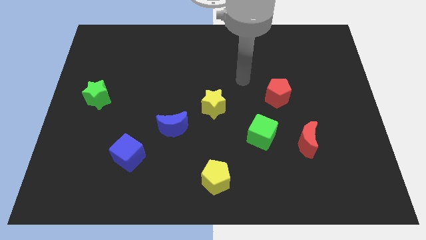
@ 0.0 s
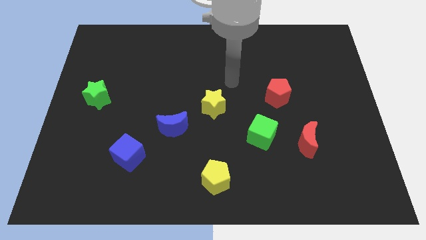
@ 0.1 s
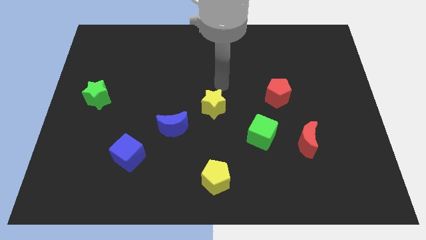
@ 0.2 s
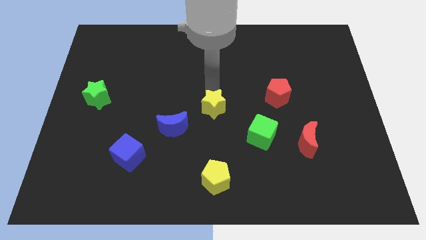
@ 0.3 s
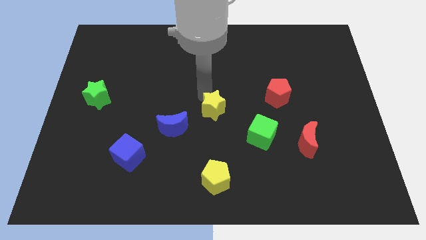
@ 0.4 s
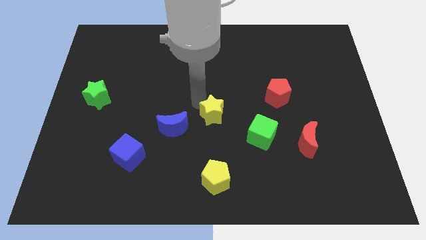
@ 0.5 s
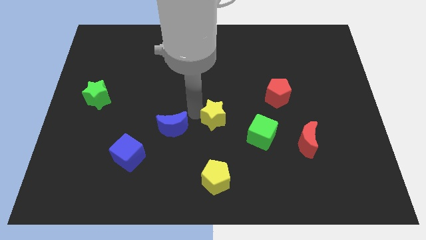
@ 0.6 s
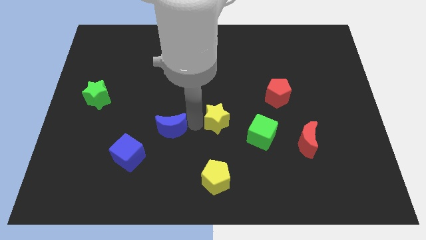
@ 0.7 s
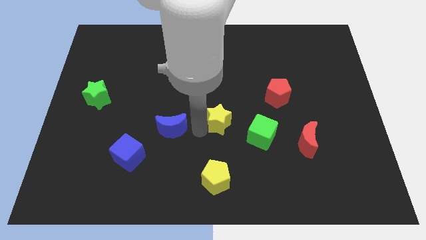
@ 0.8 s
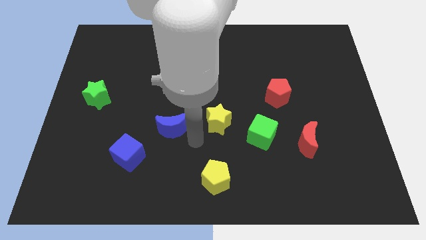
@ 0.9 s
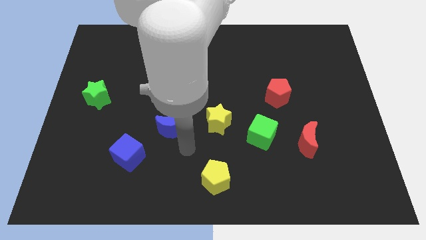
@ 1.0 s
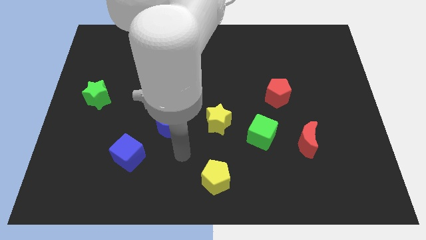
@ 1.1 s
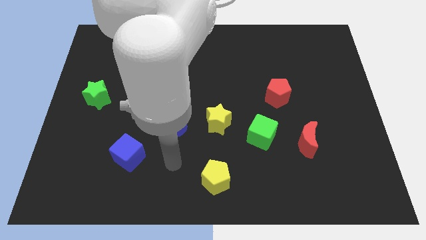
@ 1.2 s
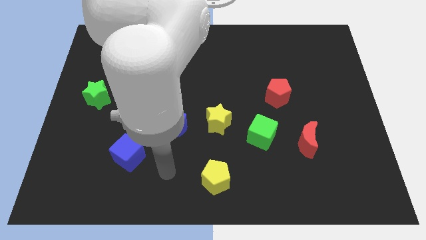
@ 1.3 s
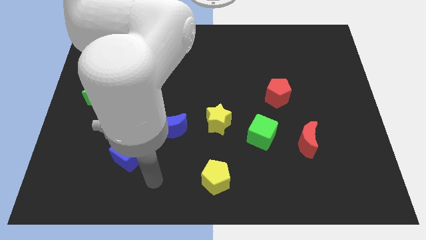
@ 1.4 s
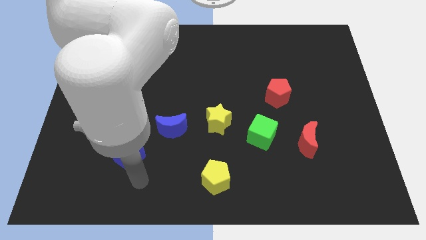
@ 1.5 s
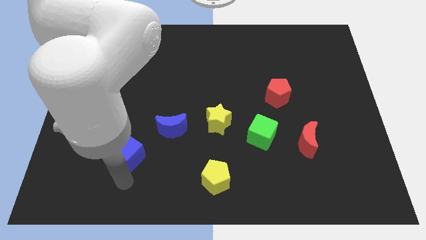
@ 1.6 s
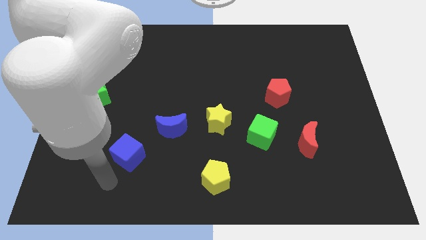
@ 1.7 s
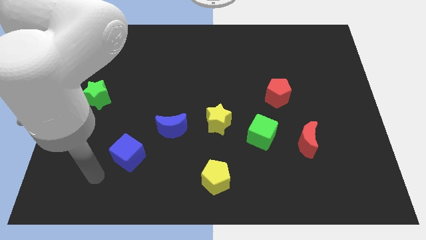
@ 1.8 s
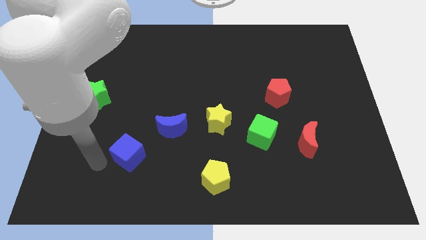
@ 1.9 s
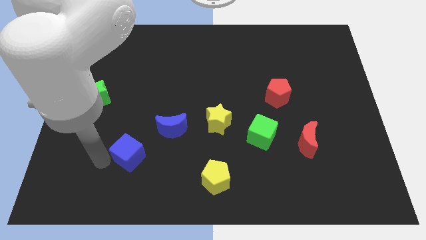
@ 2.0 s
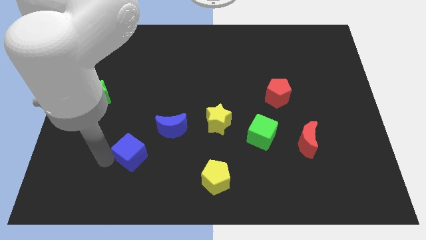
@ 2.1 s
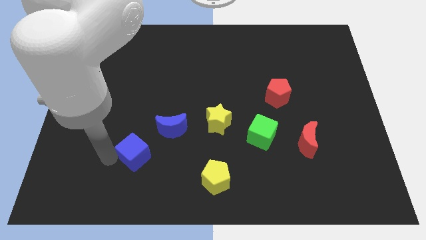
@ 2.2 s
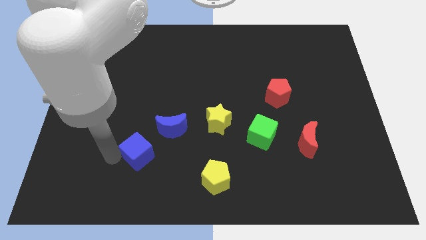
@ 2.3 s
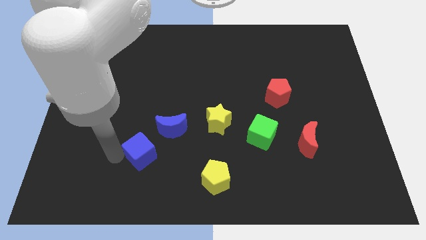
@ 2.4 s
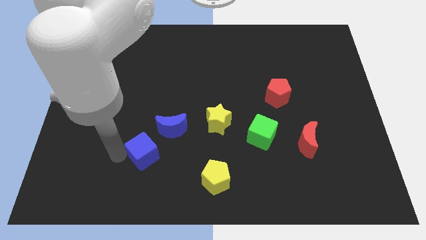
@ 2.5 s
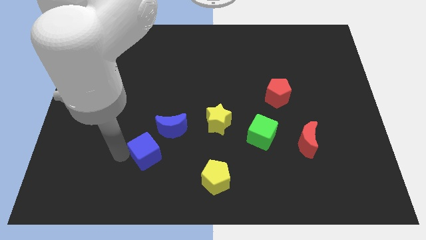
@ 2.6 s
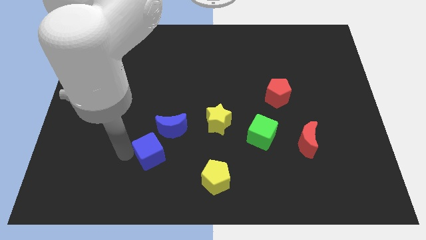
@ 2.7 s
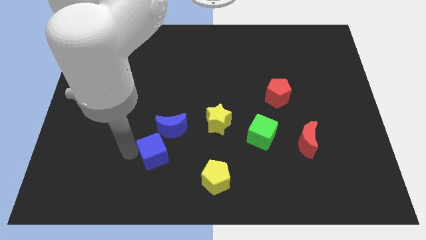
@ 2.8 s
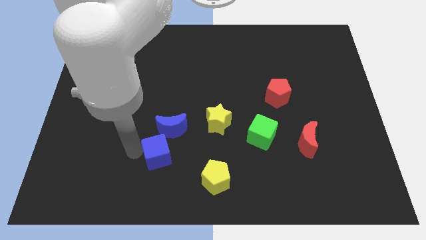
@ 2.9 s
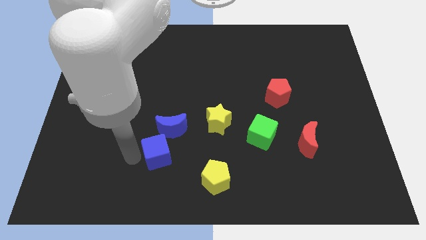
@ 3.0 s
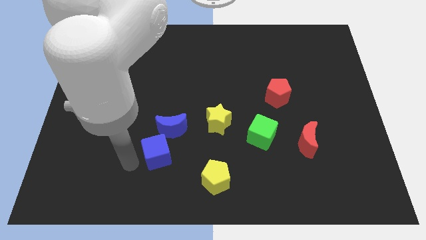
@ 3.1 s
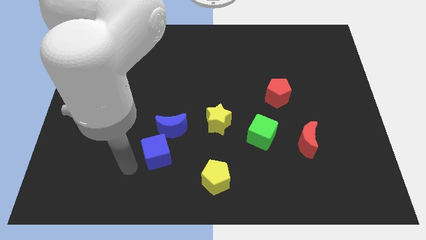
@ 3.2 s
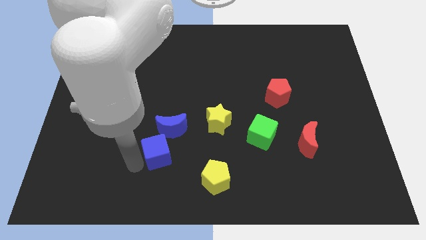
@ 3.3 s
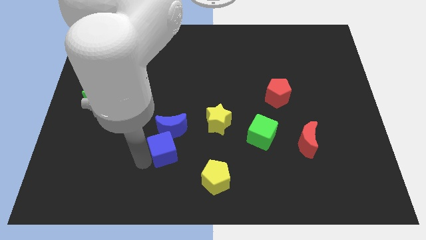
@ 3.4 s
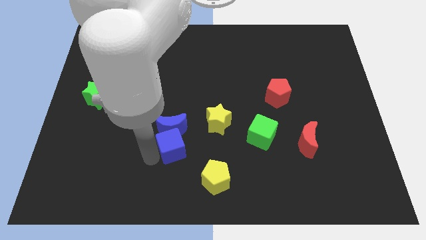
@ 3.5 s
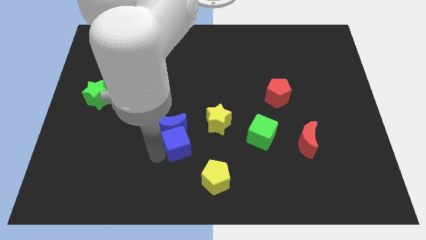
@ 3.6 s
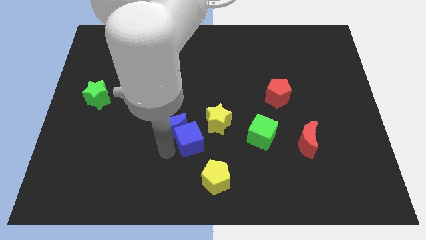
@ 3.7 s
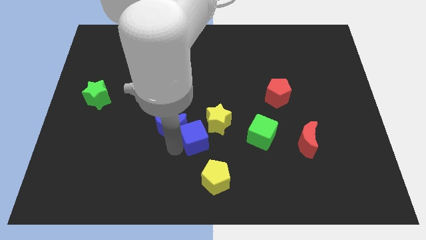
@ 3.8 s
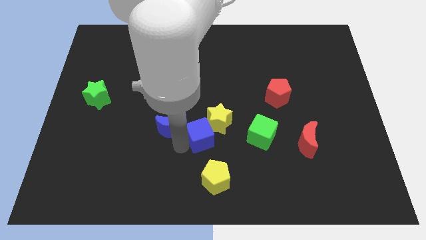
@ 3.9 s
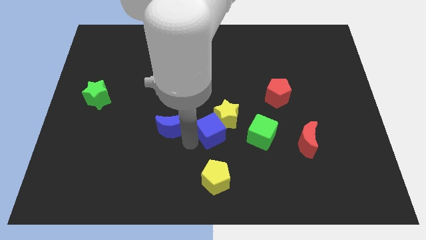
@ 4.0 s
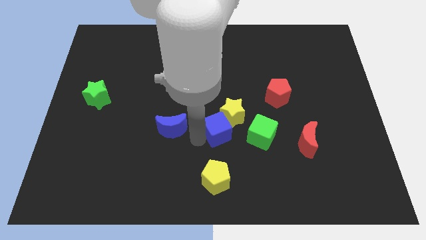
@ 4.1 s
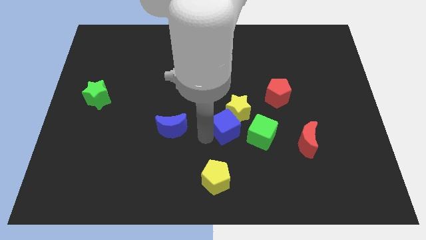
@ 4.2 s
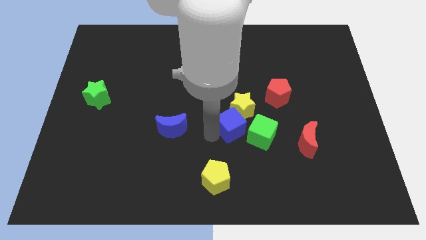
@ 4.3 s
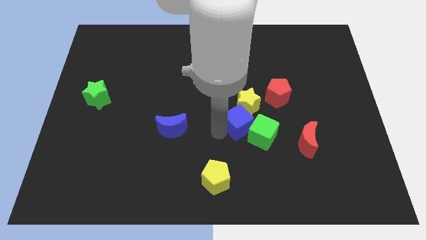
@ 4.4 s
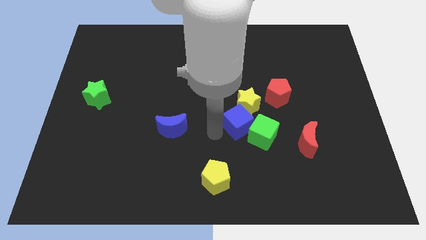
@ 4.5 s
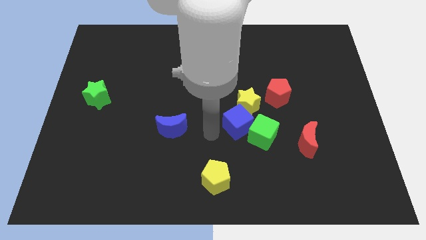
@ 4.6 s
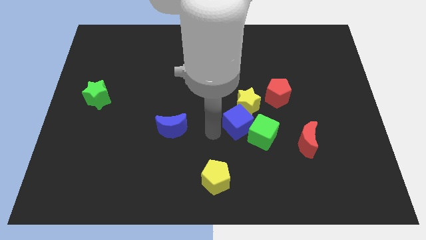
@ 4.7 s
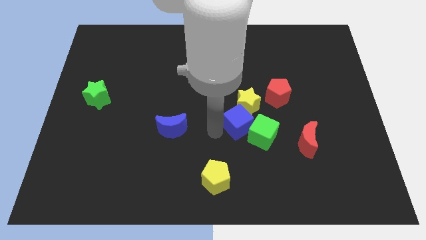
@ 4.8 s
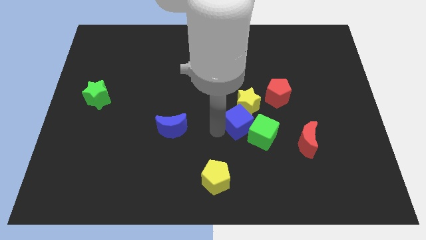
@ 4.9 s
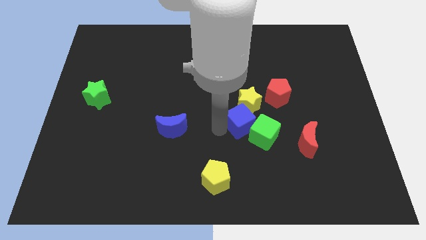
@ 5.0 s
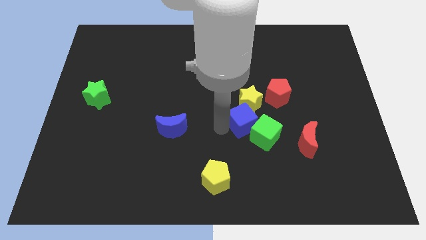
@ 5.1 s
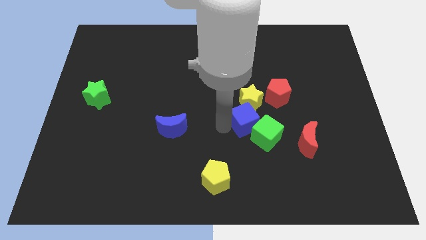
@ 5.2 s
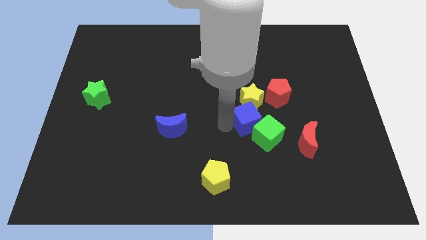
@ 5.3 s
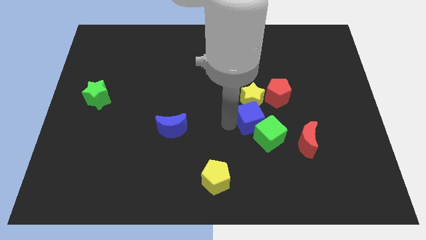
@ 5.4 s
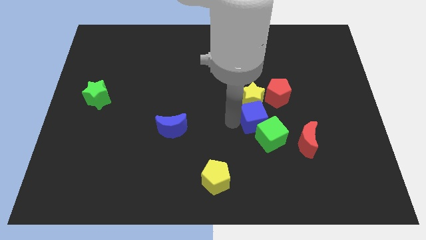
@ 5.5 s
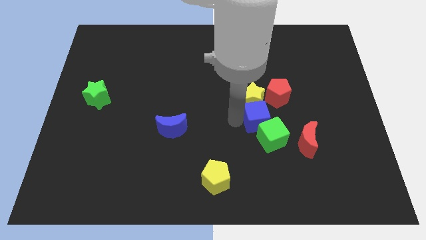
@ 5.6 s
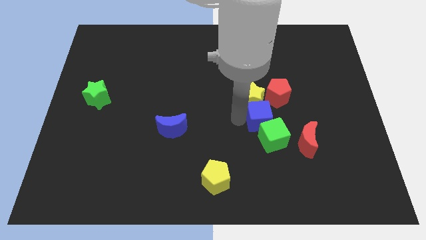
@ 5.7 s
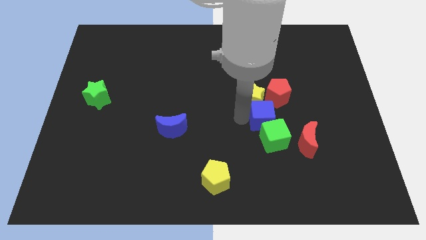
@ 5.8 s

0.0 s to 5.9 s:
move the blue cube to the bottom side of the red pentagon

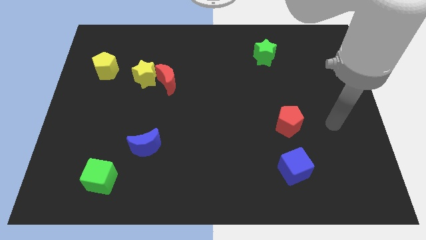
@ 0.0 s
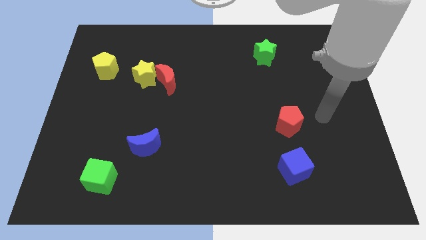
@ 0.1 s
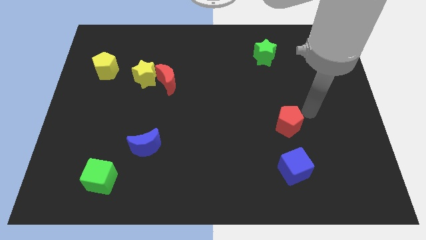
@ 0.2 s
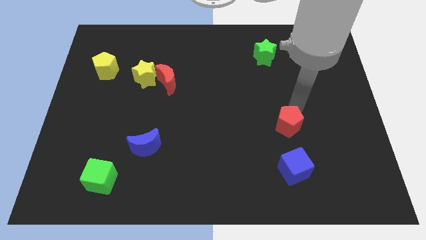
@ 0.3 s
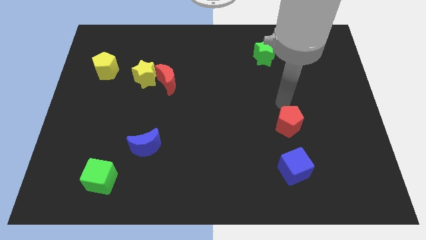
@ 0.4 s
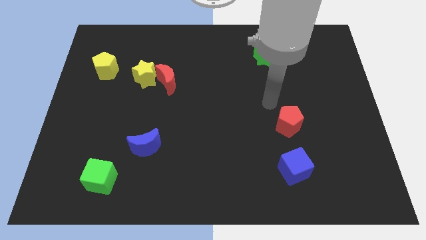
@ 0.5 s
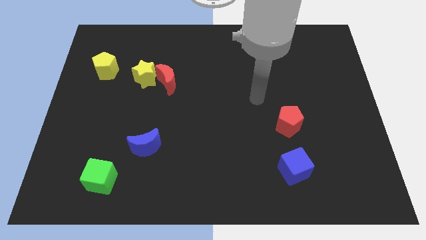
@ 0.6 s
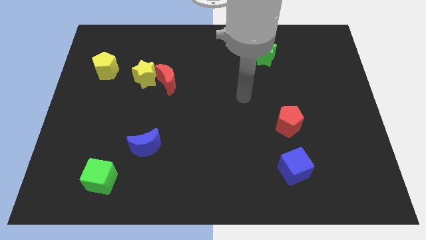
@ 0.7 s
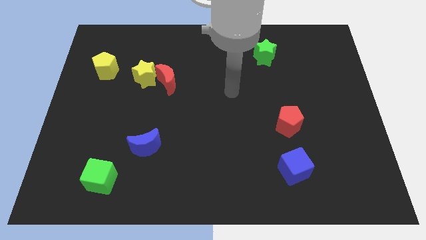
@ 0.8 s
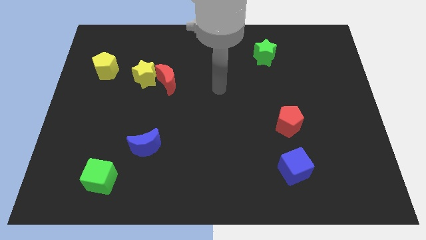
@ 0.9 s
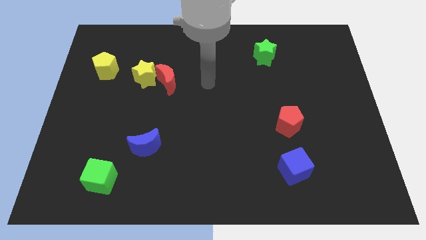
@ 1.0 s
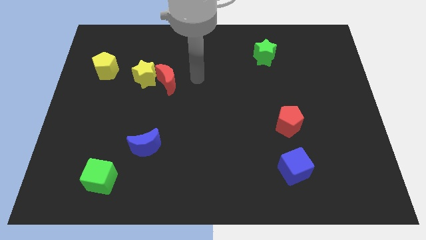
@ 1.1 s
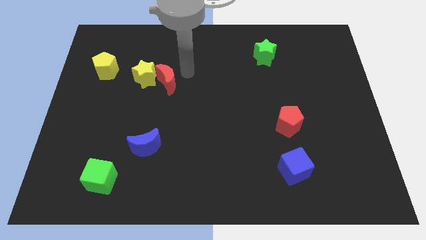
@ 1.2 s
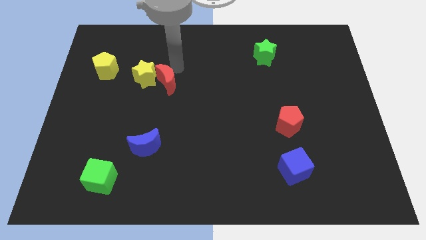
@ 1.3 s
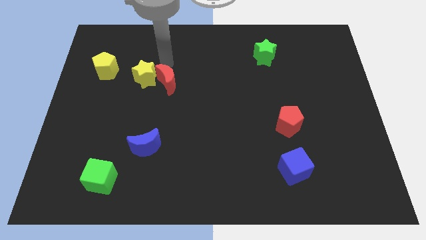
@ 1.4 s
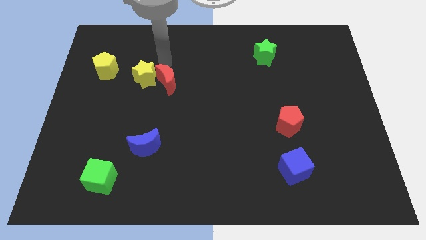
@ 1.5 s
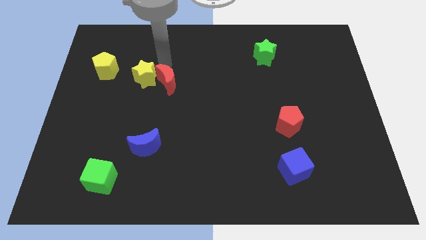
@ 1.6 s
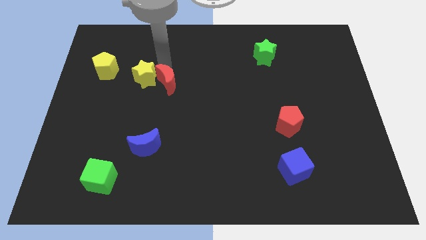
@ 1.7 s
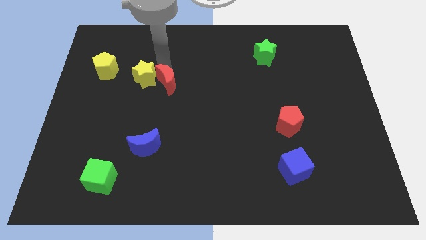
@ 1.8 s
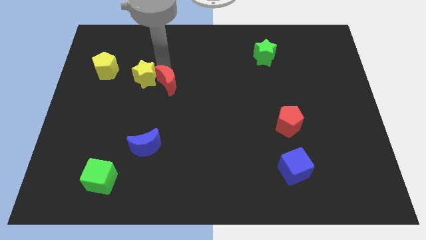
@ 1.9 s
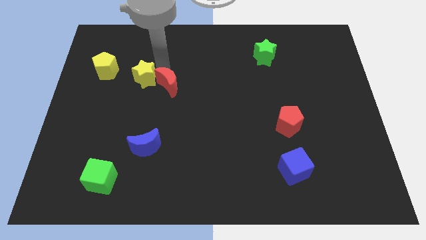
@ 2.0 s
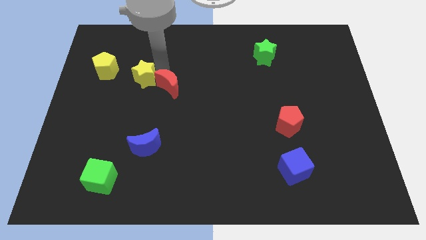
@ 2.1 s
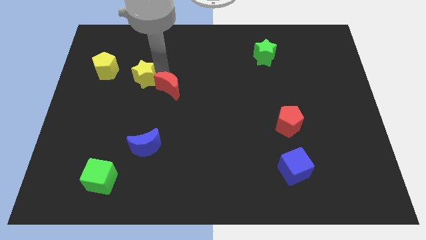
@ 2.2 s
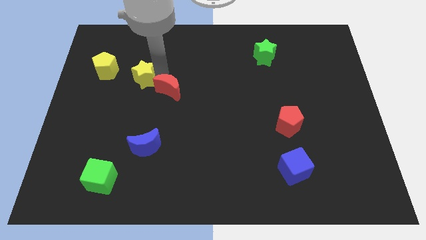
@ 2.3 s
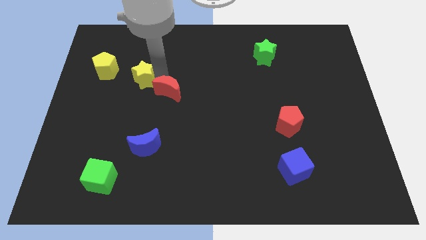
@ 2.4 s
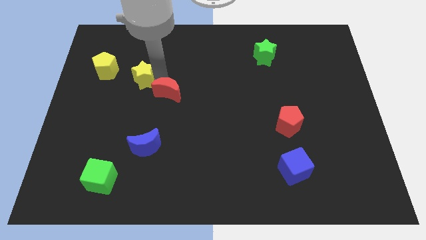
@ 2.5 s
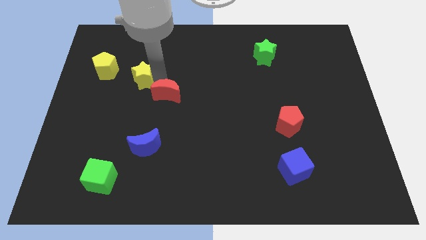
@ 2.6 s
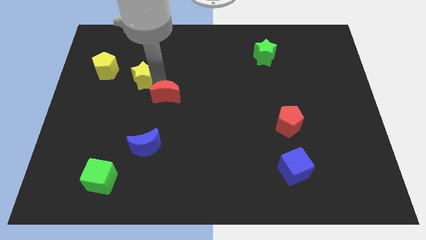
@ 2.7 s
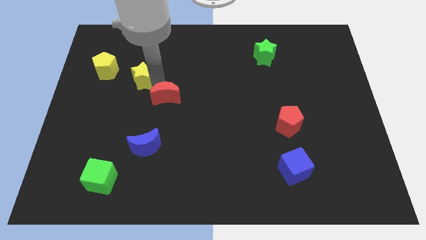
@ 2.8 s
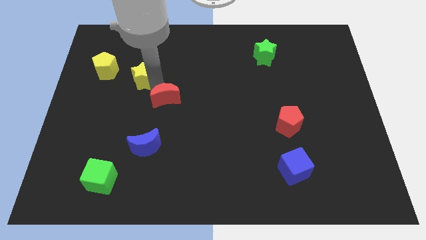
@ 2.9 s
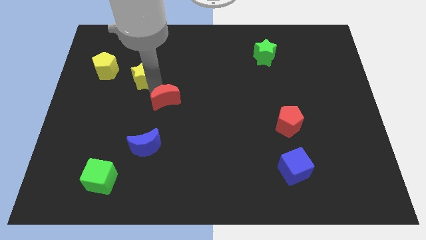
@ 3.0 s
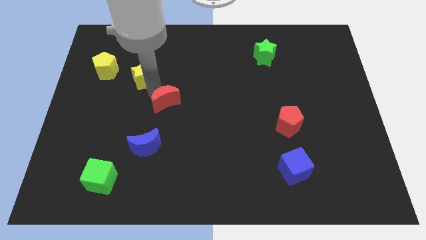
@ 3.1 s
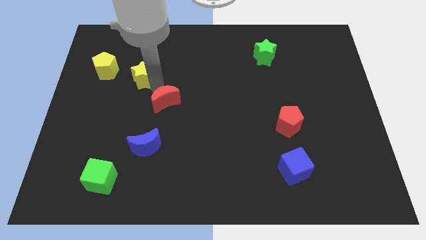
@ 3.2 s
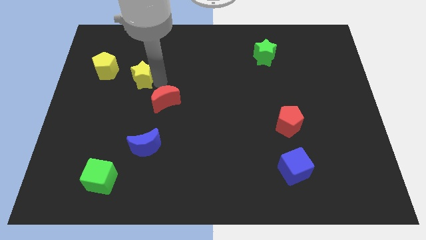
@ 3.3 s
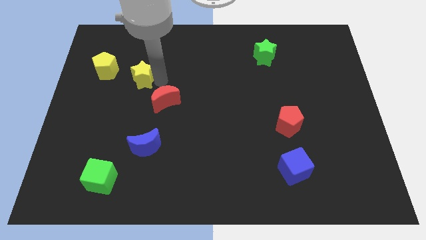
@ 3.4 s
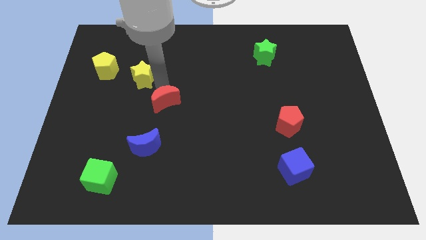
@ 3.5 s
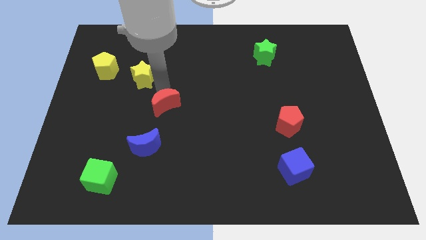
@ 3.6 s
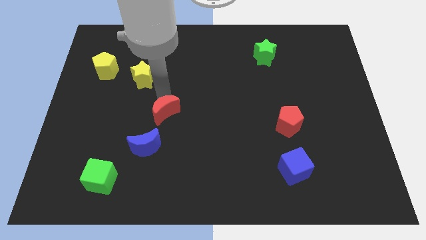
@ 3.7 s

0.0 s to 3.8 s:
move the red moon to the top right of the blue moon
